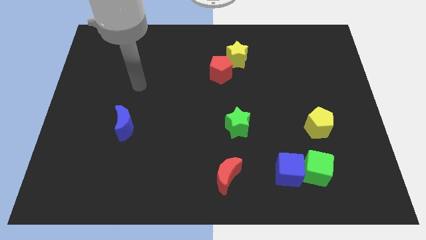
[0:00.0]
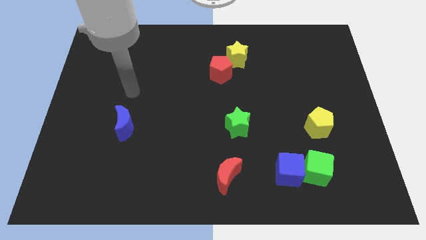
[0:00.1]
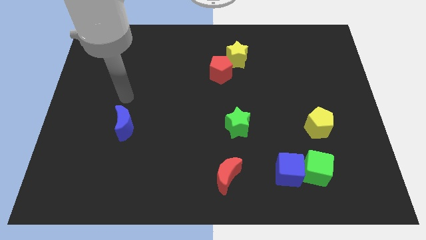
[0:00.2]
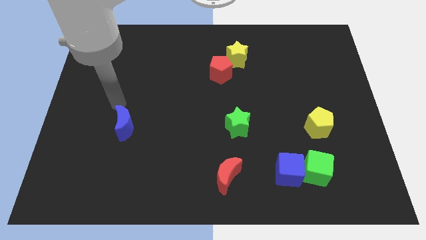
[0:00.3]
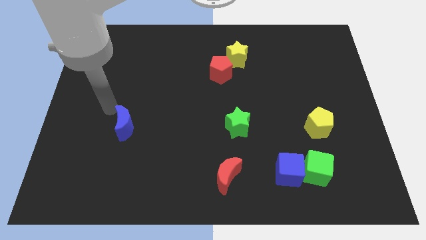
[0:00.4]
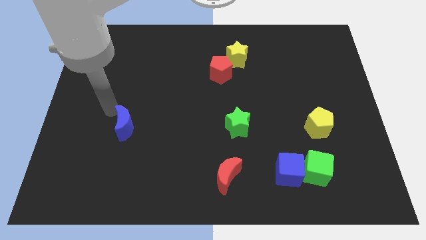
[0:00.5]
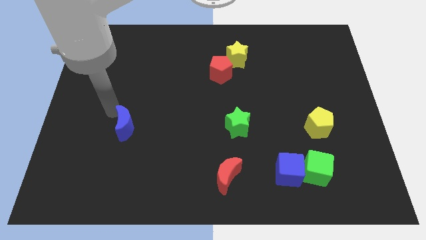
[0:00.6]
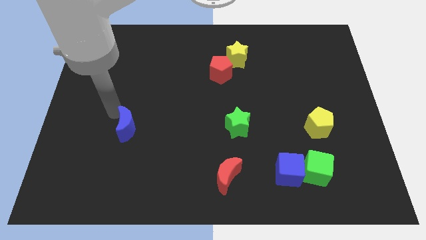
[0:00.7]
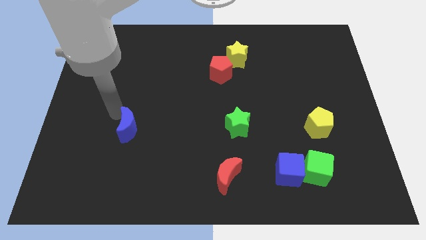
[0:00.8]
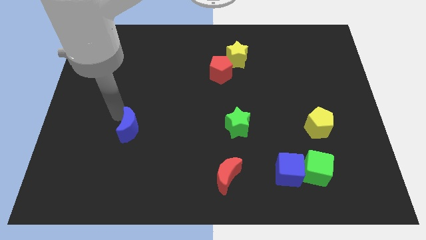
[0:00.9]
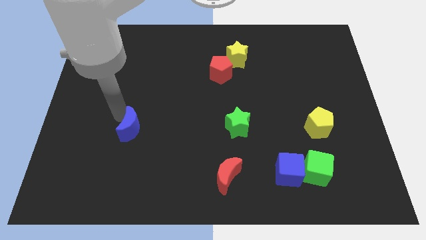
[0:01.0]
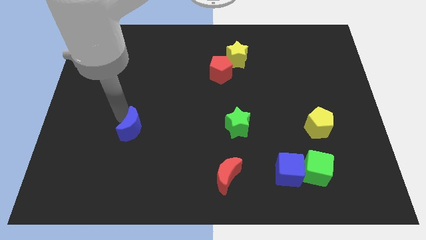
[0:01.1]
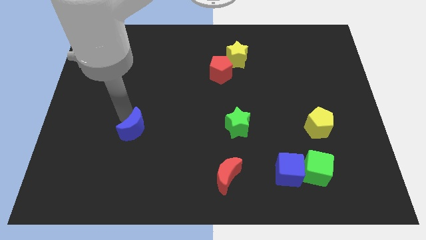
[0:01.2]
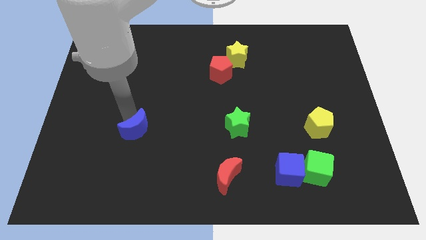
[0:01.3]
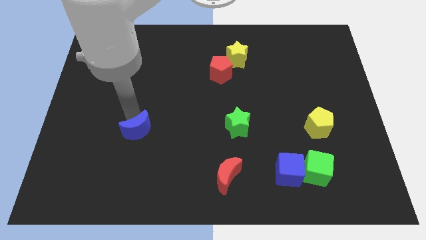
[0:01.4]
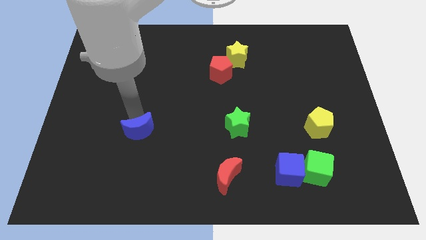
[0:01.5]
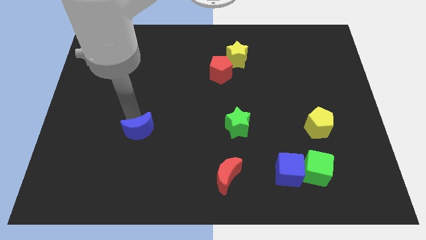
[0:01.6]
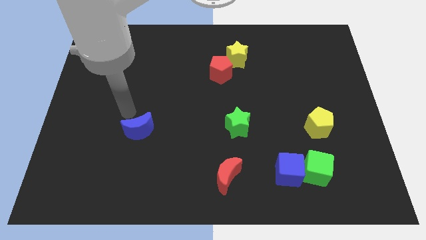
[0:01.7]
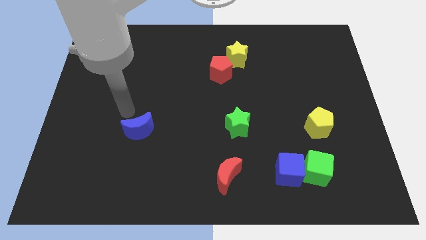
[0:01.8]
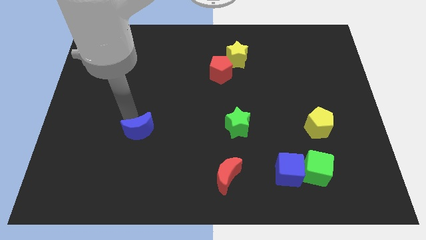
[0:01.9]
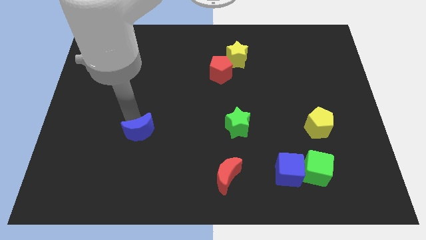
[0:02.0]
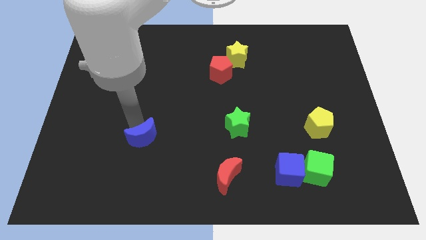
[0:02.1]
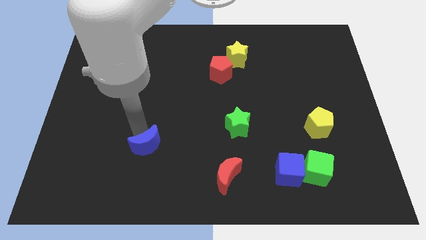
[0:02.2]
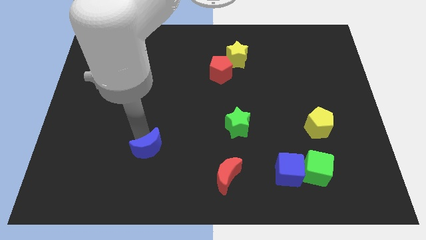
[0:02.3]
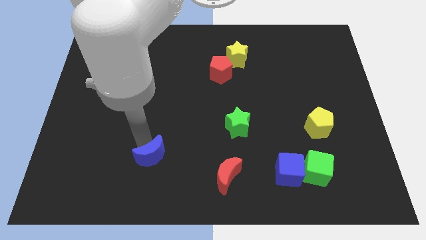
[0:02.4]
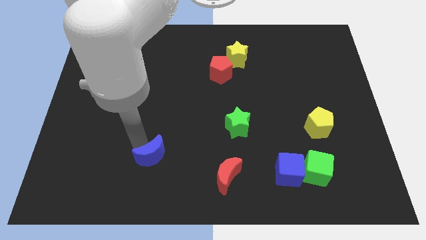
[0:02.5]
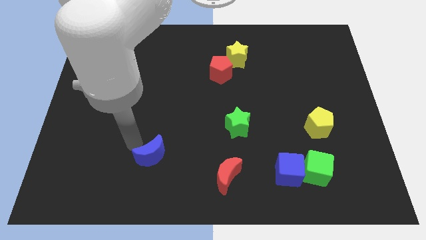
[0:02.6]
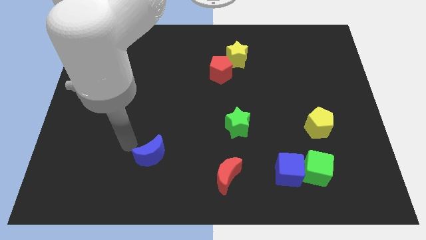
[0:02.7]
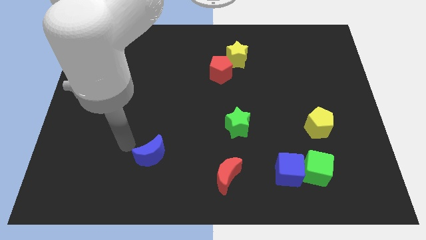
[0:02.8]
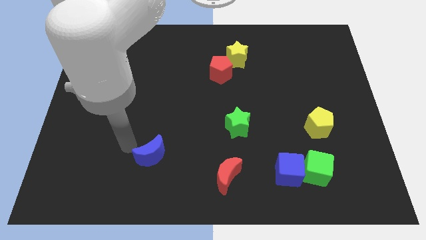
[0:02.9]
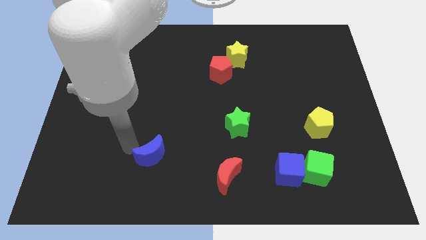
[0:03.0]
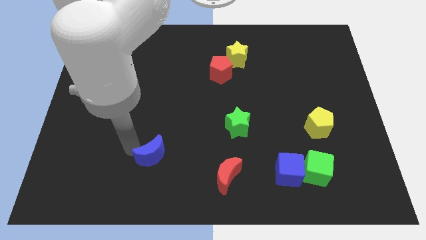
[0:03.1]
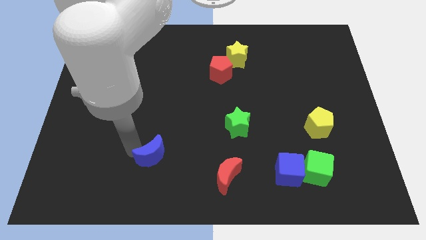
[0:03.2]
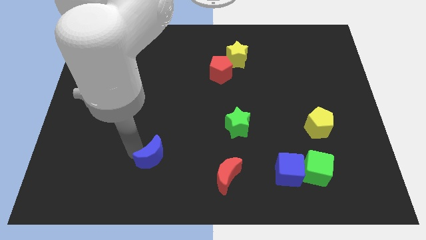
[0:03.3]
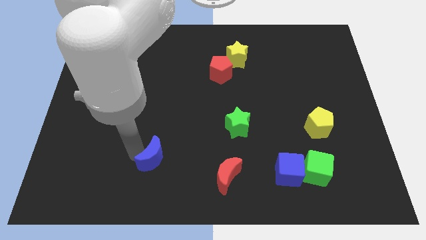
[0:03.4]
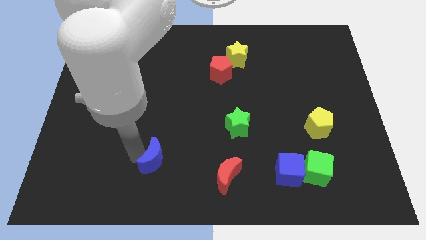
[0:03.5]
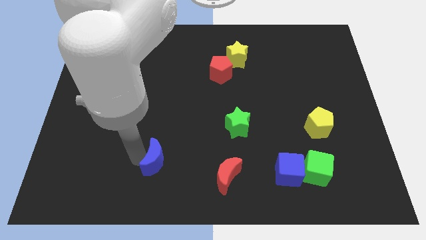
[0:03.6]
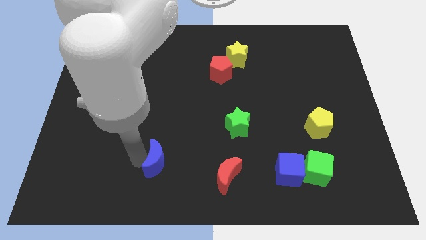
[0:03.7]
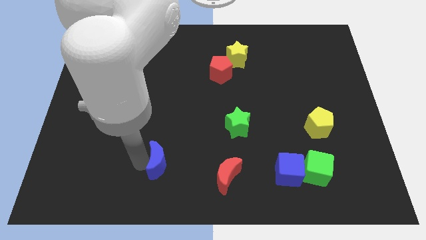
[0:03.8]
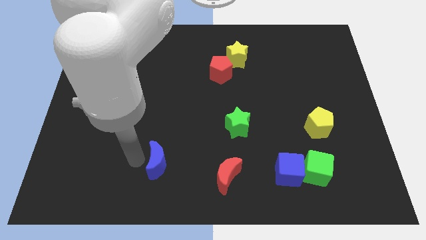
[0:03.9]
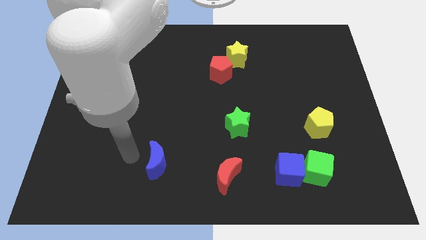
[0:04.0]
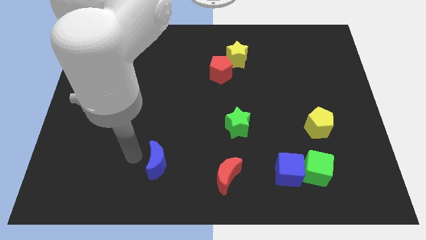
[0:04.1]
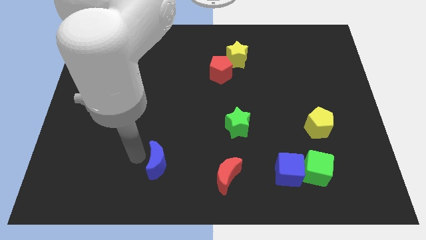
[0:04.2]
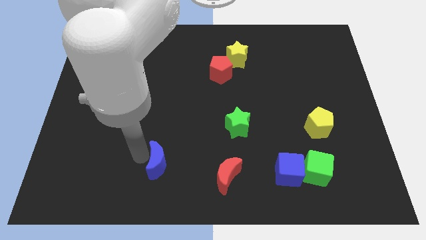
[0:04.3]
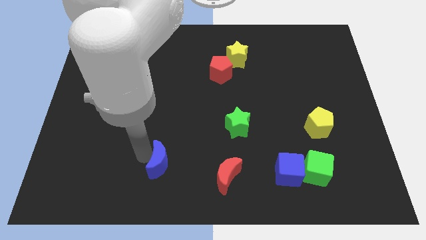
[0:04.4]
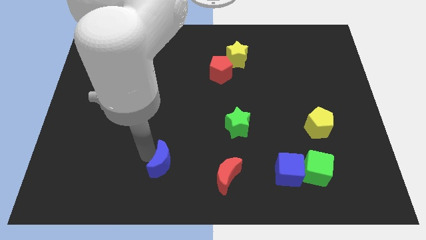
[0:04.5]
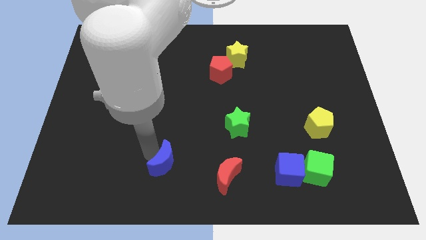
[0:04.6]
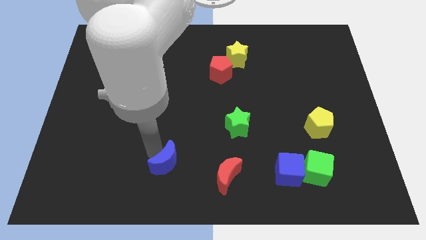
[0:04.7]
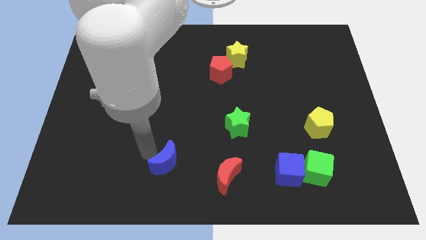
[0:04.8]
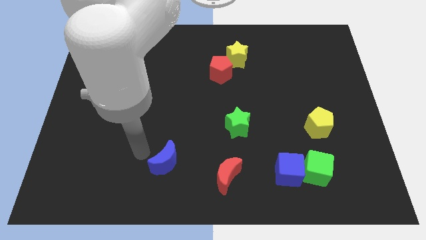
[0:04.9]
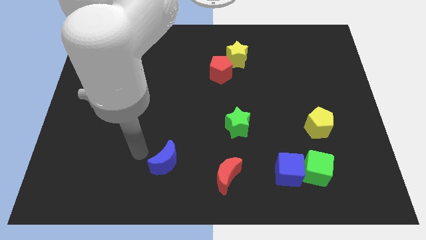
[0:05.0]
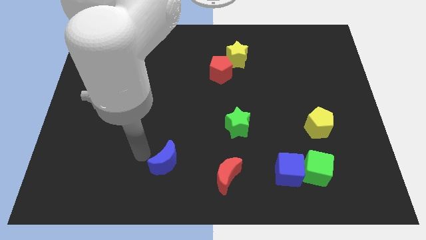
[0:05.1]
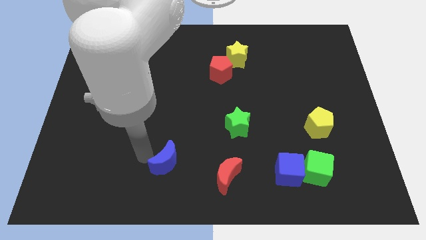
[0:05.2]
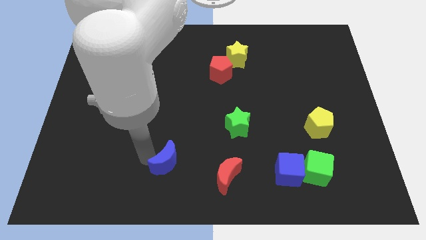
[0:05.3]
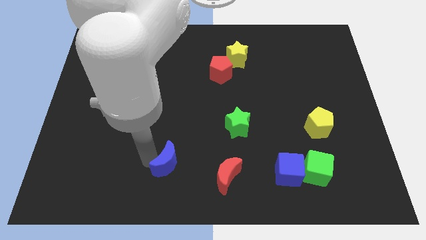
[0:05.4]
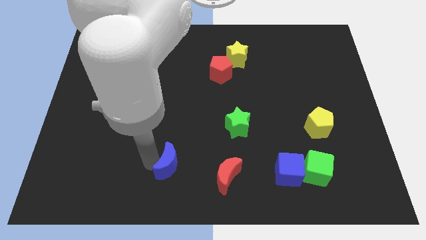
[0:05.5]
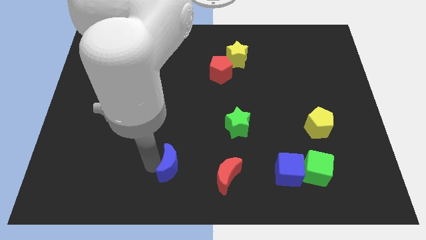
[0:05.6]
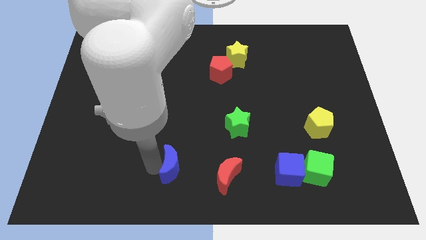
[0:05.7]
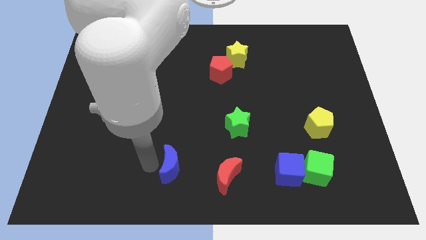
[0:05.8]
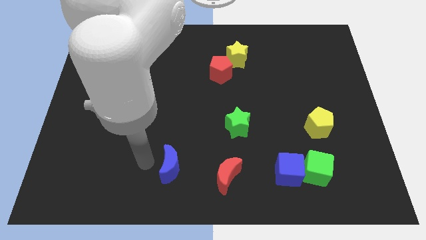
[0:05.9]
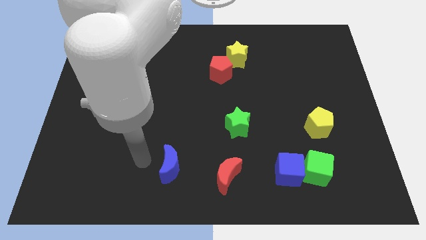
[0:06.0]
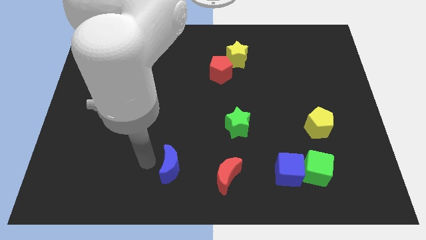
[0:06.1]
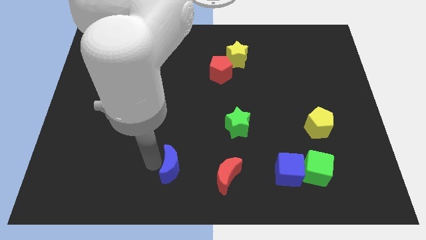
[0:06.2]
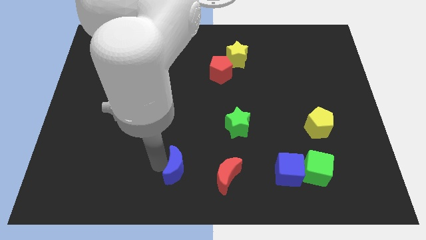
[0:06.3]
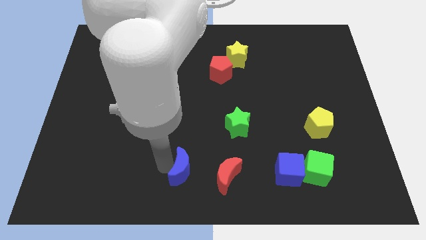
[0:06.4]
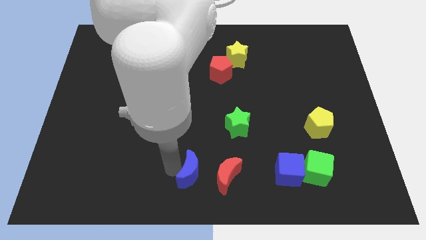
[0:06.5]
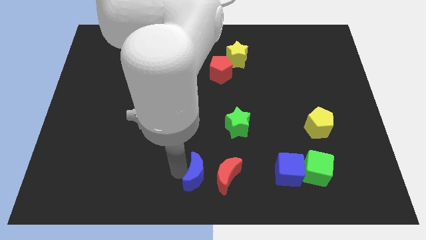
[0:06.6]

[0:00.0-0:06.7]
slide the blue moon towards the red moon
